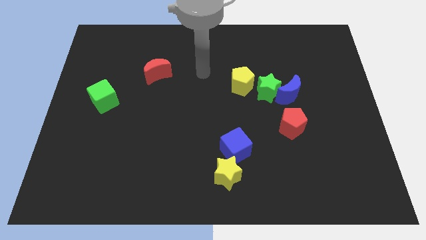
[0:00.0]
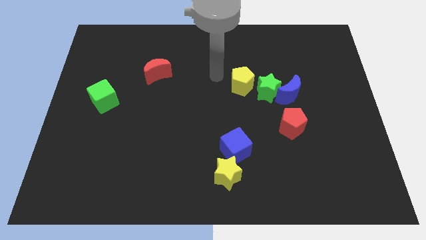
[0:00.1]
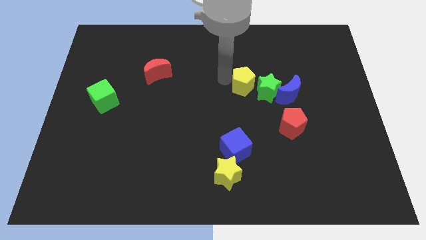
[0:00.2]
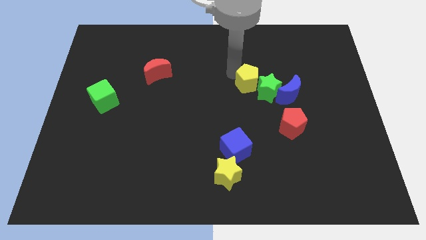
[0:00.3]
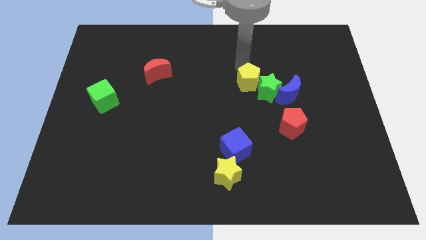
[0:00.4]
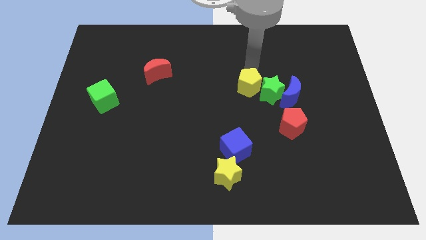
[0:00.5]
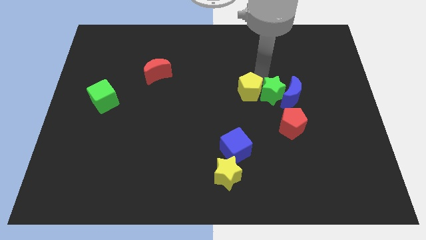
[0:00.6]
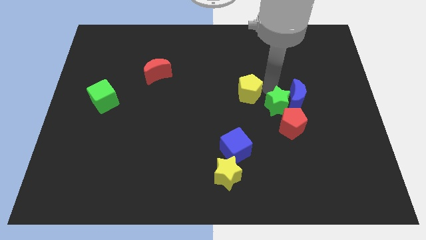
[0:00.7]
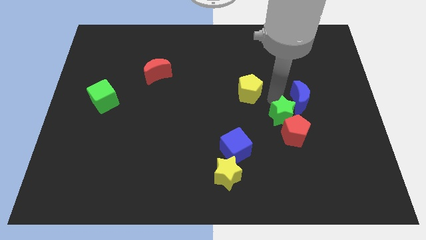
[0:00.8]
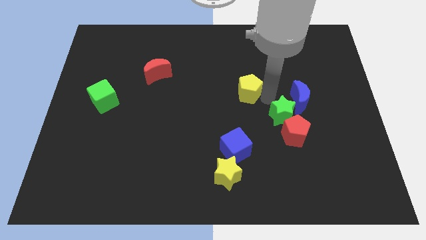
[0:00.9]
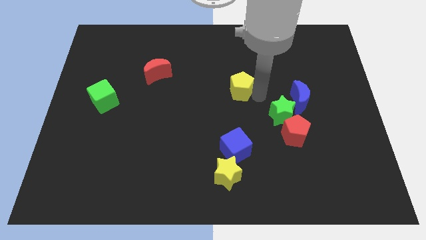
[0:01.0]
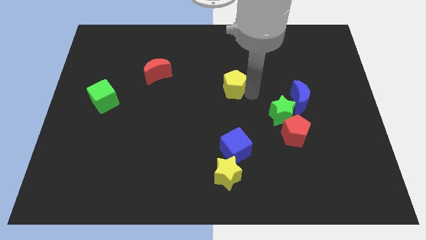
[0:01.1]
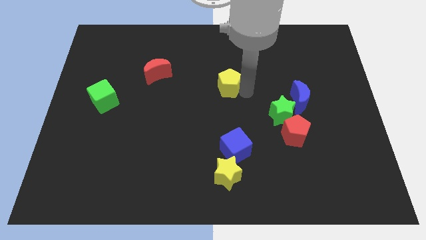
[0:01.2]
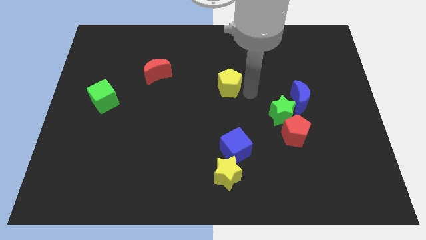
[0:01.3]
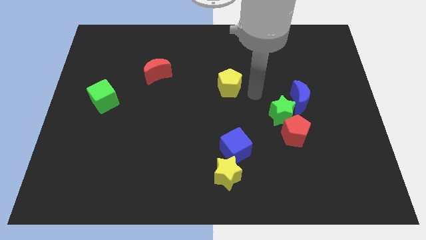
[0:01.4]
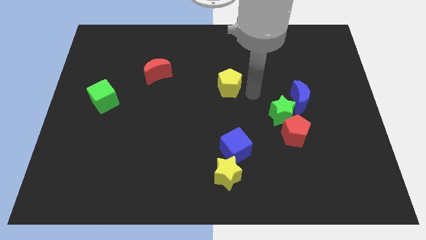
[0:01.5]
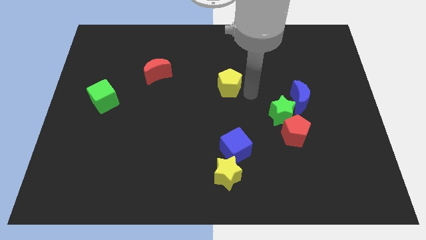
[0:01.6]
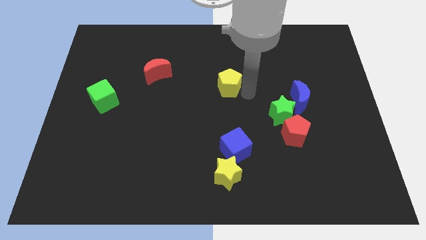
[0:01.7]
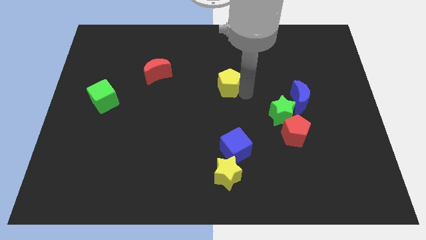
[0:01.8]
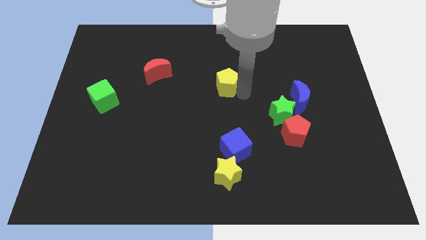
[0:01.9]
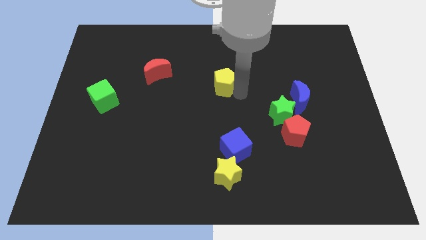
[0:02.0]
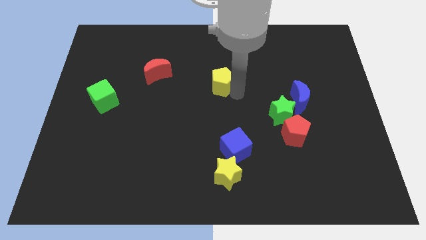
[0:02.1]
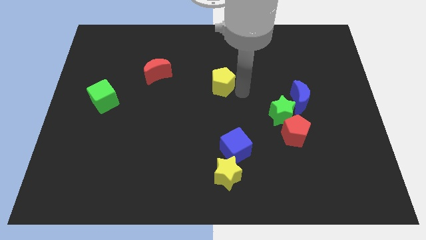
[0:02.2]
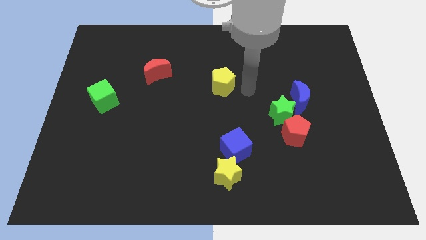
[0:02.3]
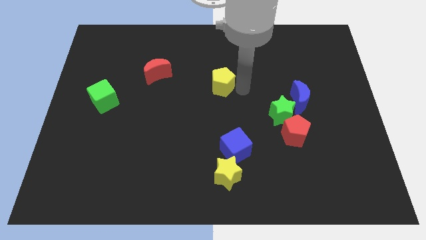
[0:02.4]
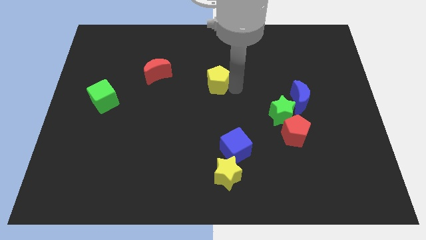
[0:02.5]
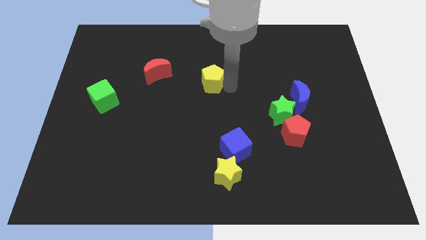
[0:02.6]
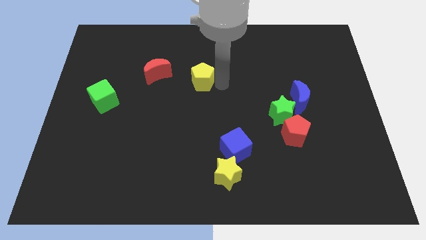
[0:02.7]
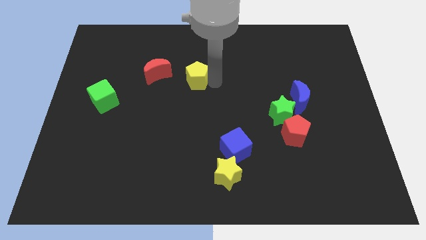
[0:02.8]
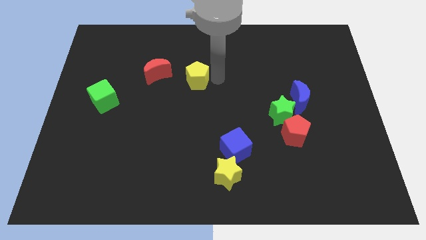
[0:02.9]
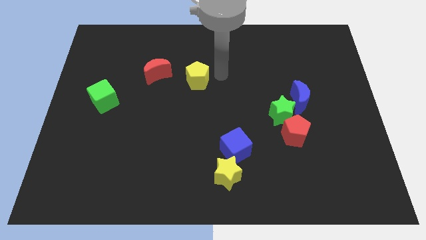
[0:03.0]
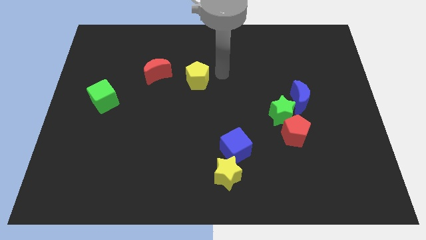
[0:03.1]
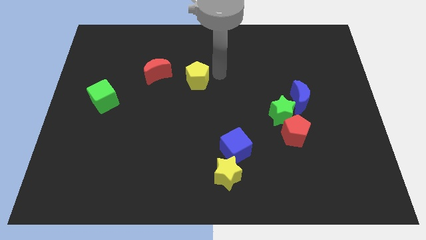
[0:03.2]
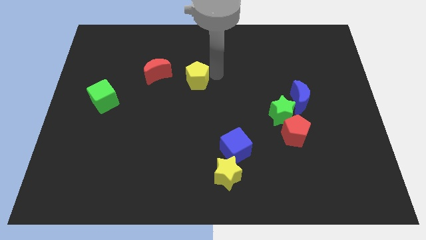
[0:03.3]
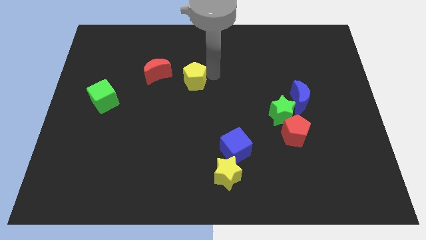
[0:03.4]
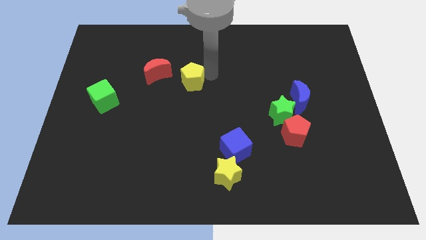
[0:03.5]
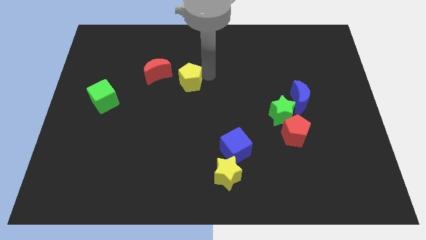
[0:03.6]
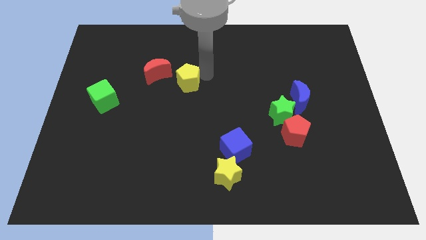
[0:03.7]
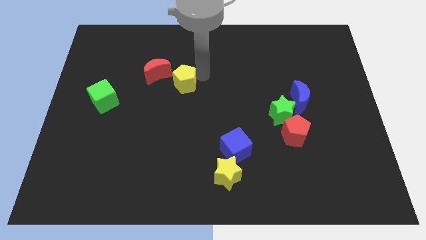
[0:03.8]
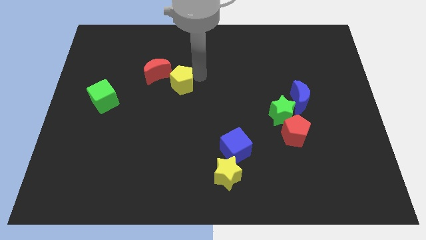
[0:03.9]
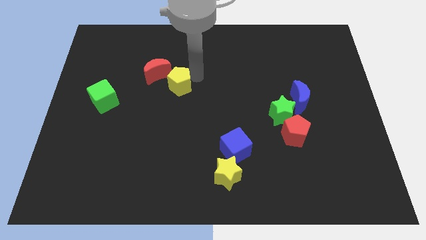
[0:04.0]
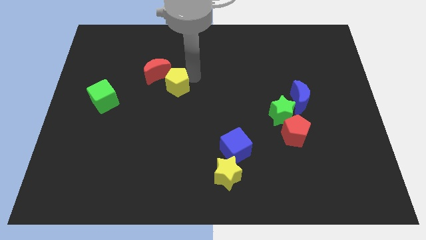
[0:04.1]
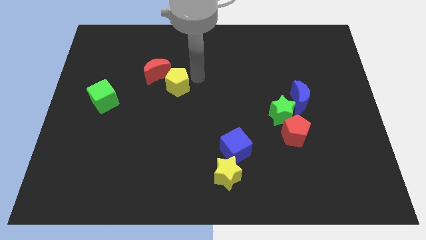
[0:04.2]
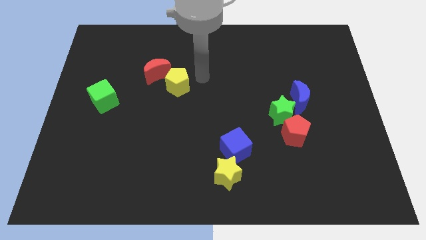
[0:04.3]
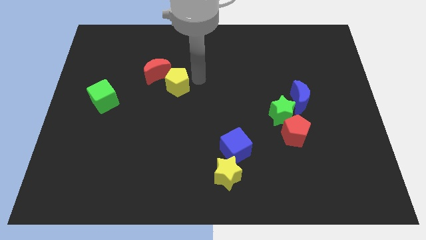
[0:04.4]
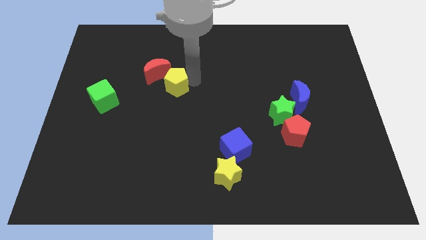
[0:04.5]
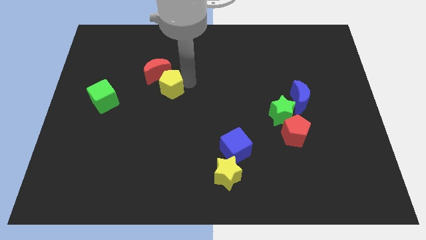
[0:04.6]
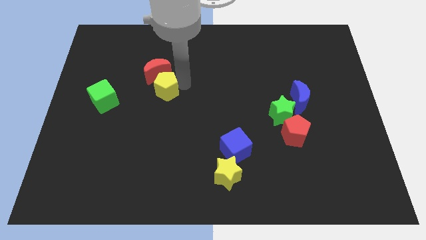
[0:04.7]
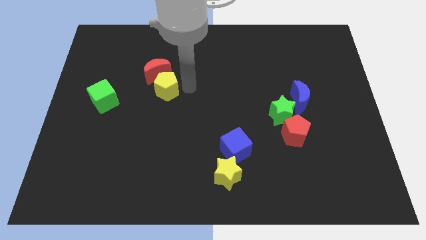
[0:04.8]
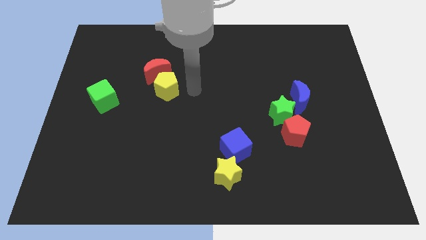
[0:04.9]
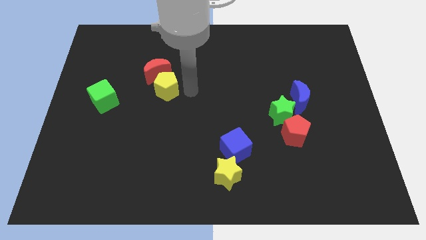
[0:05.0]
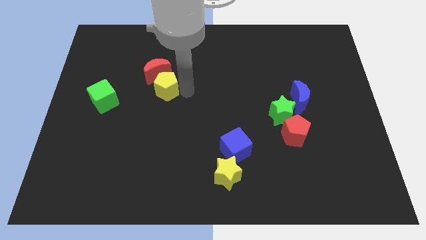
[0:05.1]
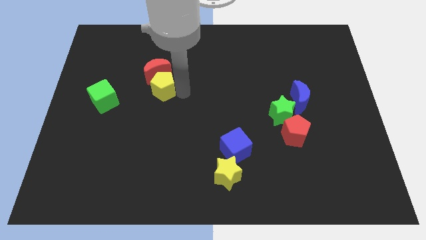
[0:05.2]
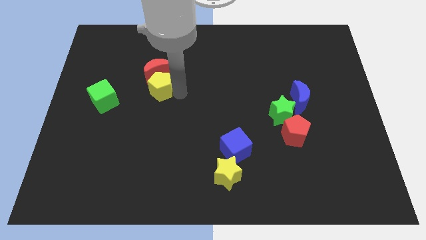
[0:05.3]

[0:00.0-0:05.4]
put the yellow pentagon to the bottom left side of the red moon
